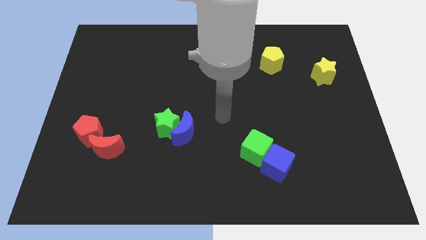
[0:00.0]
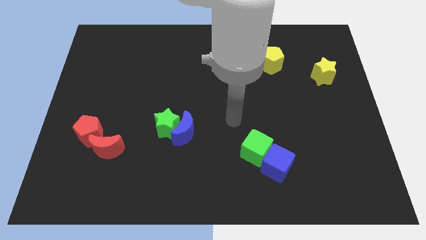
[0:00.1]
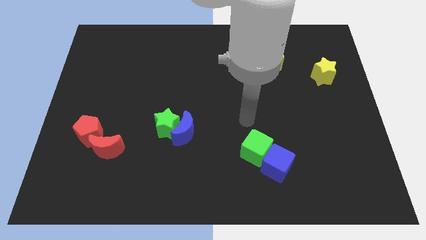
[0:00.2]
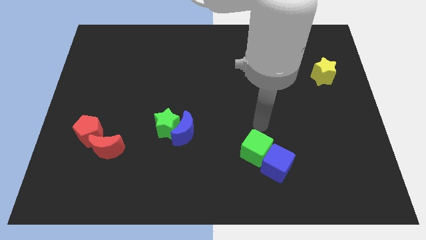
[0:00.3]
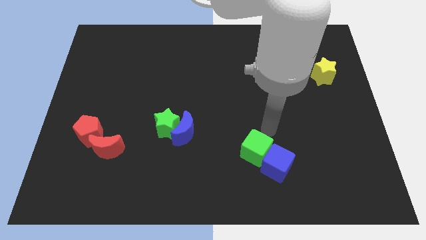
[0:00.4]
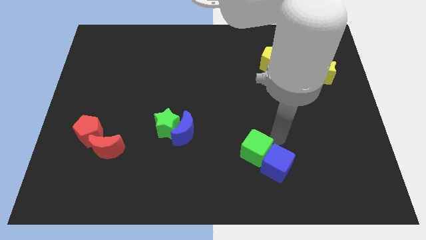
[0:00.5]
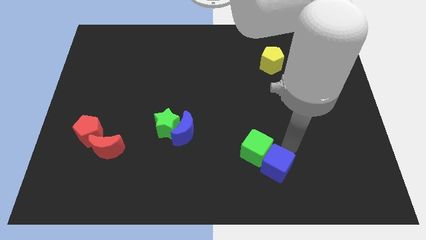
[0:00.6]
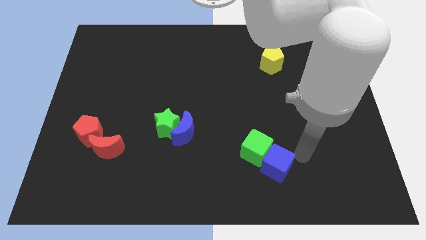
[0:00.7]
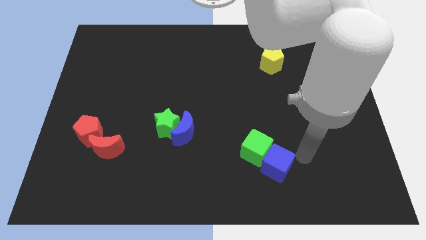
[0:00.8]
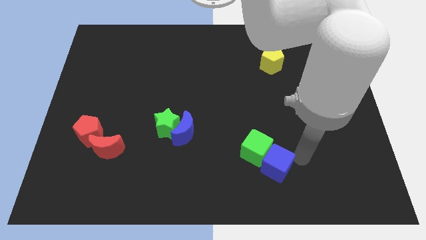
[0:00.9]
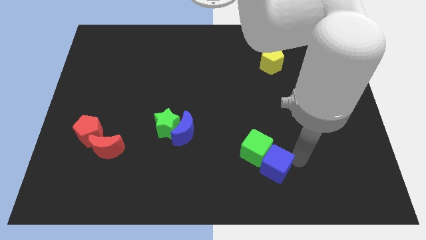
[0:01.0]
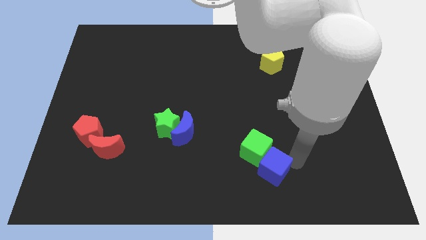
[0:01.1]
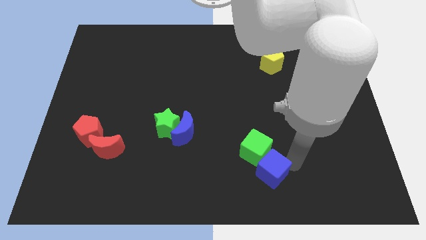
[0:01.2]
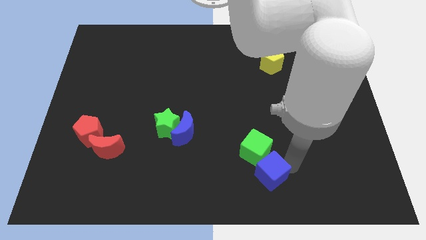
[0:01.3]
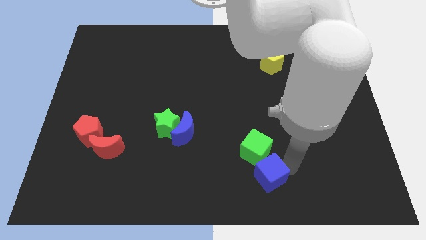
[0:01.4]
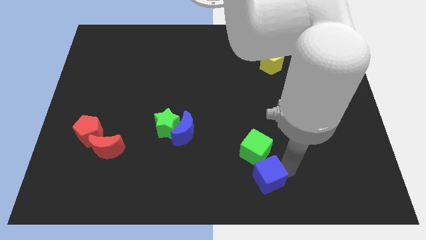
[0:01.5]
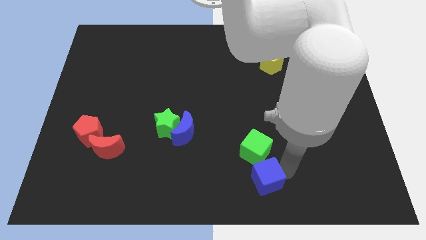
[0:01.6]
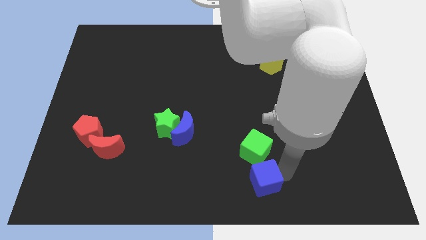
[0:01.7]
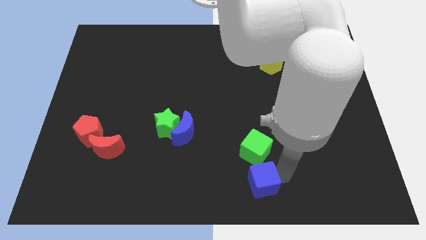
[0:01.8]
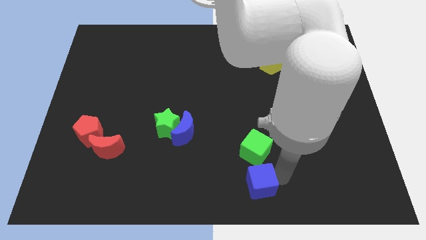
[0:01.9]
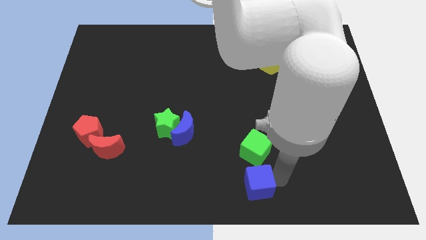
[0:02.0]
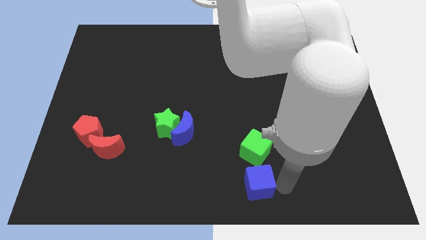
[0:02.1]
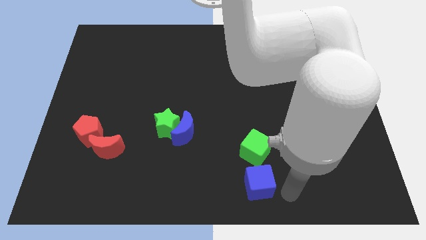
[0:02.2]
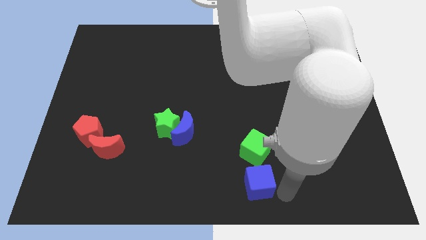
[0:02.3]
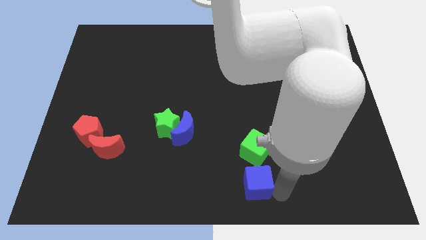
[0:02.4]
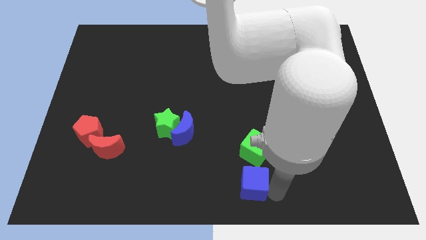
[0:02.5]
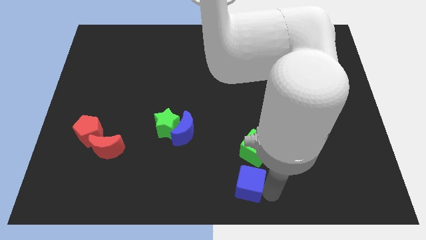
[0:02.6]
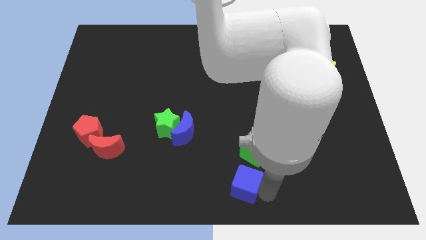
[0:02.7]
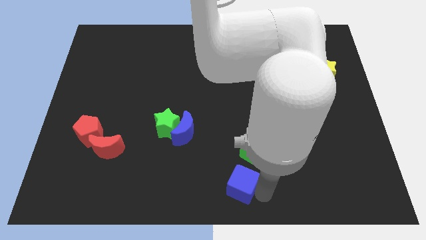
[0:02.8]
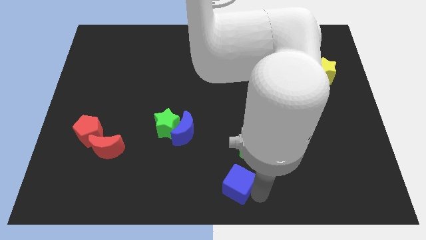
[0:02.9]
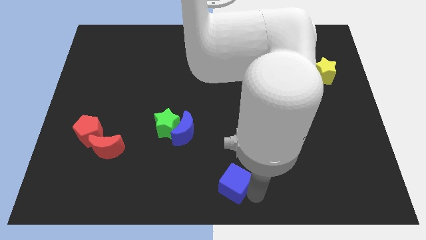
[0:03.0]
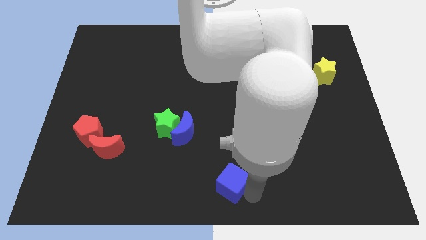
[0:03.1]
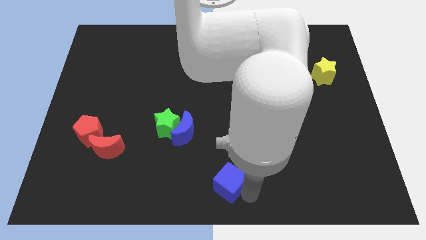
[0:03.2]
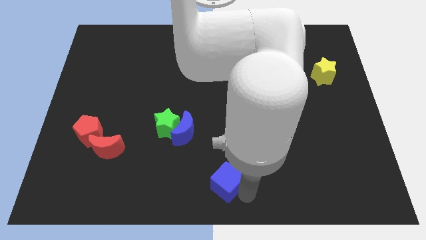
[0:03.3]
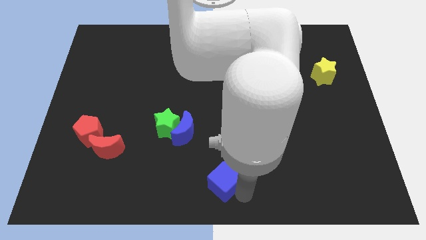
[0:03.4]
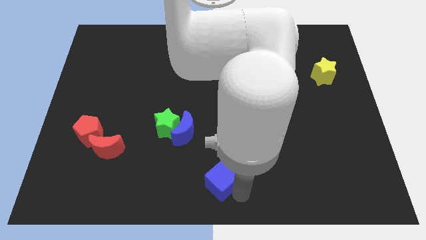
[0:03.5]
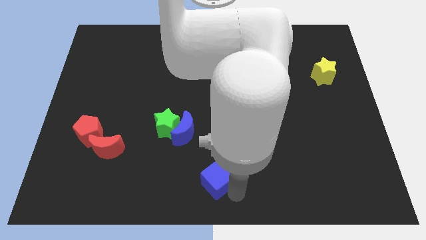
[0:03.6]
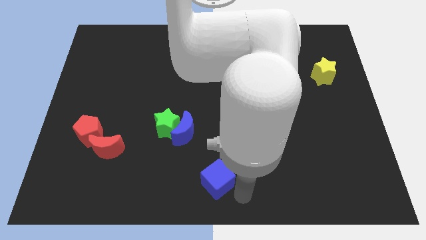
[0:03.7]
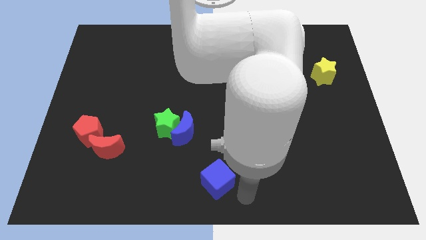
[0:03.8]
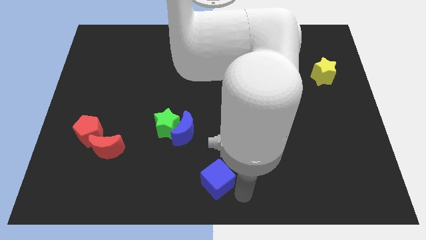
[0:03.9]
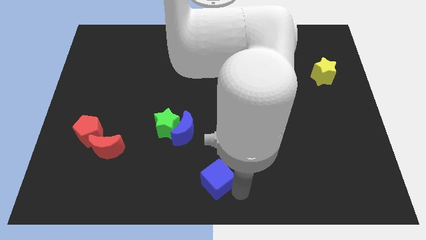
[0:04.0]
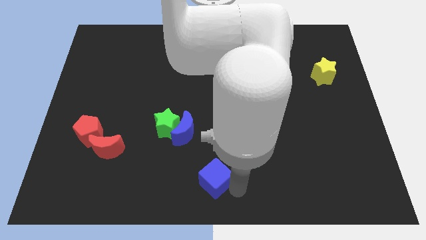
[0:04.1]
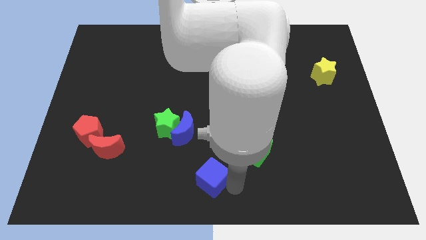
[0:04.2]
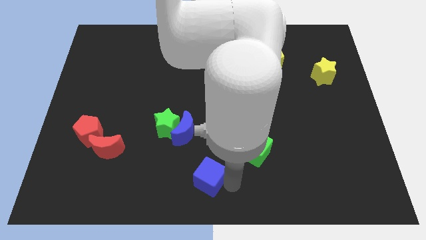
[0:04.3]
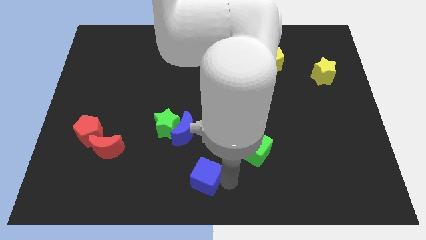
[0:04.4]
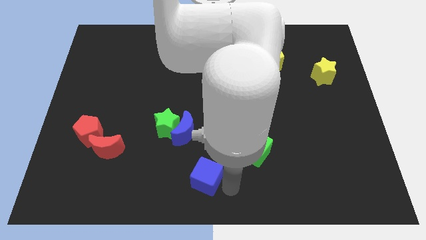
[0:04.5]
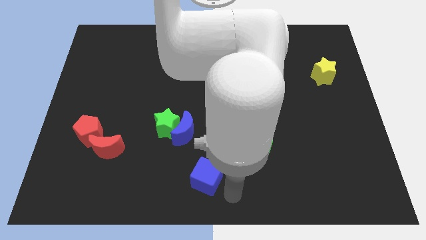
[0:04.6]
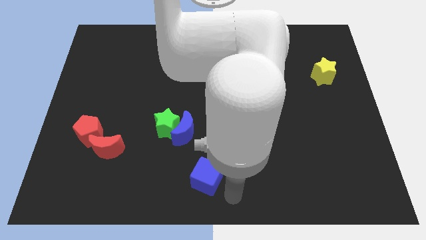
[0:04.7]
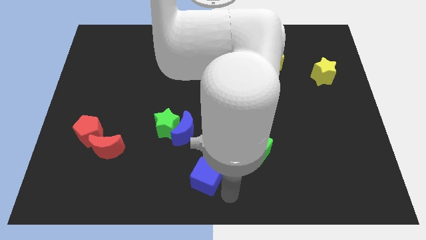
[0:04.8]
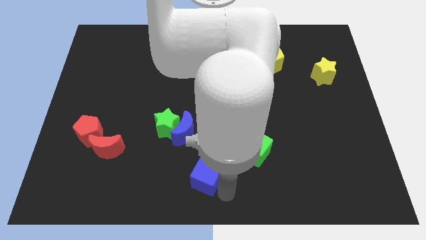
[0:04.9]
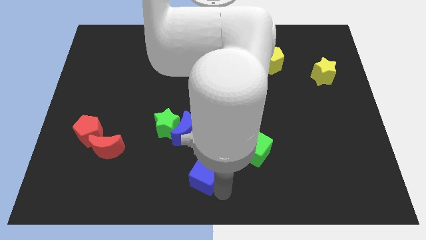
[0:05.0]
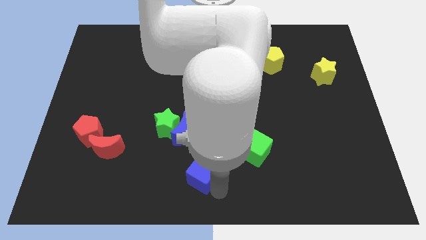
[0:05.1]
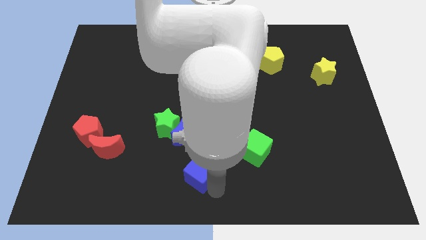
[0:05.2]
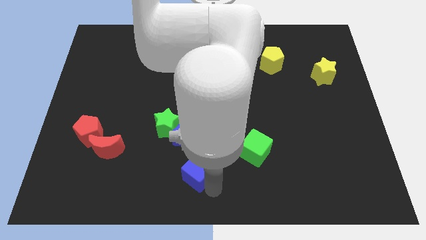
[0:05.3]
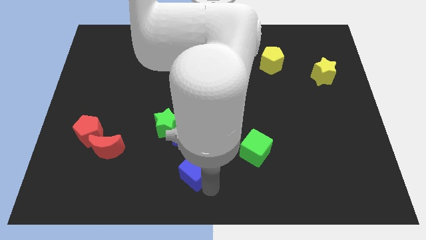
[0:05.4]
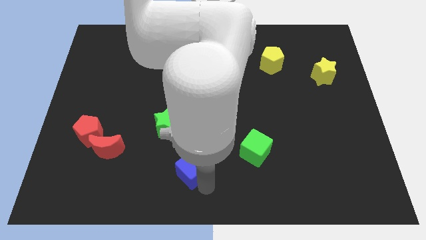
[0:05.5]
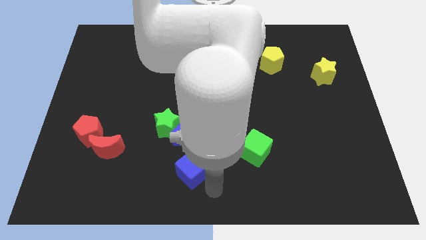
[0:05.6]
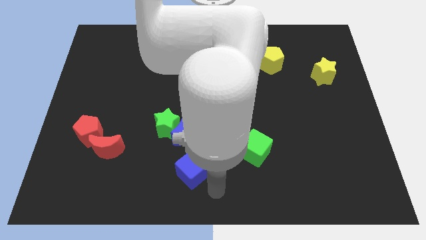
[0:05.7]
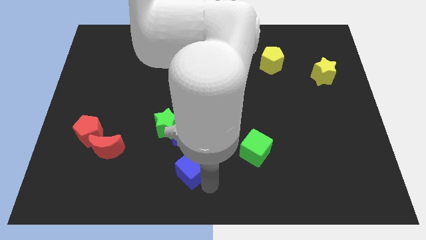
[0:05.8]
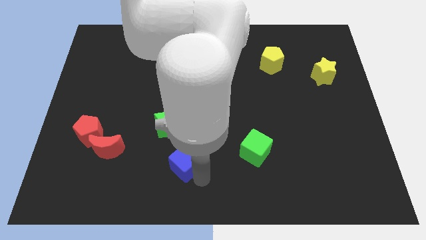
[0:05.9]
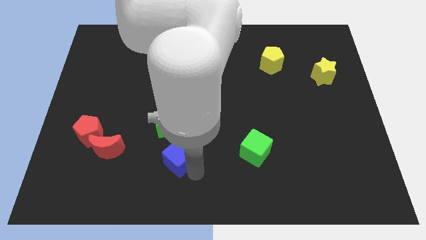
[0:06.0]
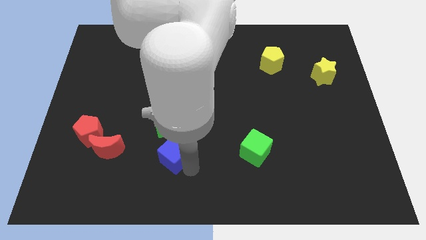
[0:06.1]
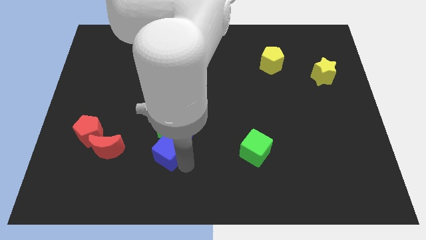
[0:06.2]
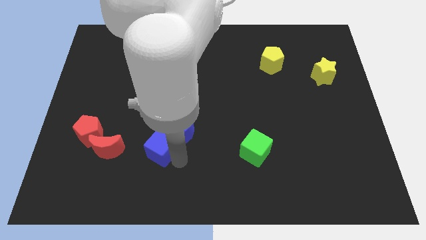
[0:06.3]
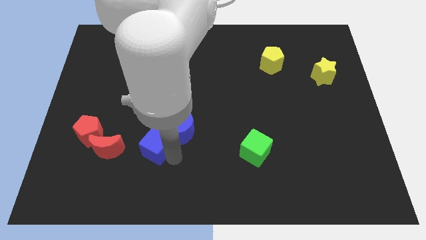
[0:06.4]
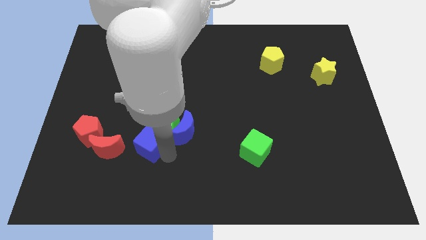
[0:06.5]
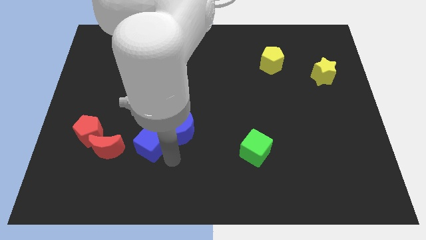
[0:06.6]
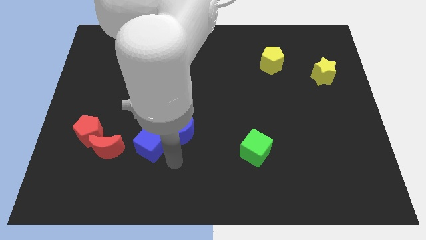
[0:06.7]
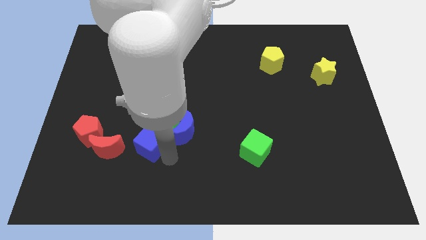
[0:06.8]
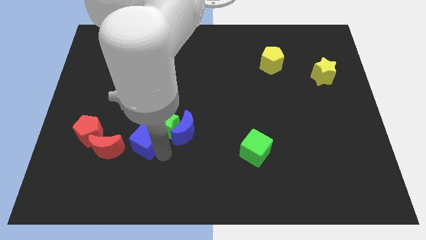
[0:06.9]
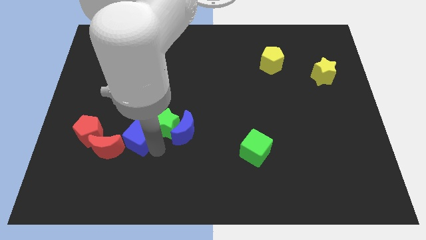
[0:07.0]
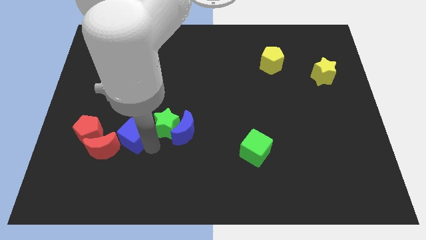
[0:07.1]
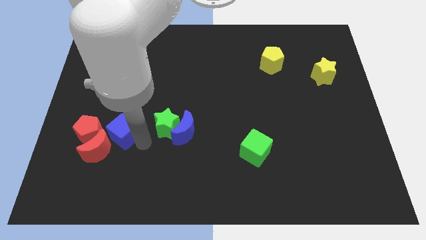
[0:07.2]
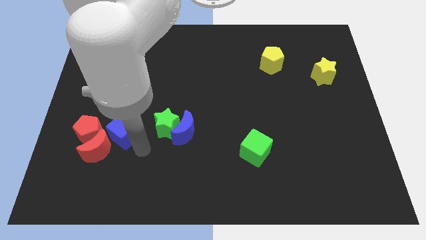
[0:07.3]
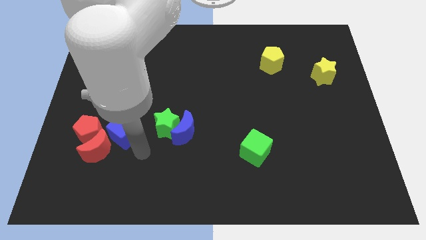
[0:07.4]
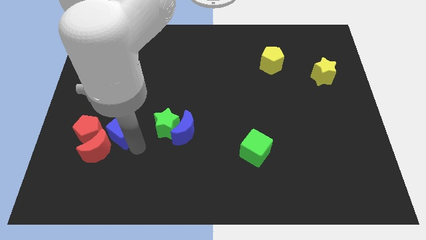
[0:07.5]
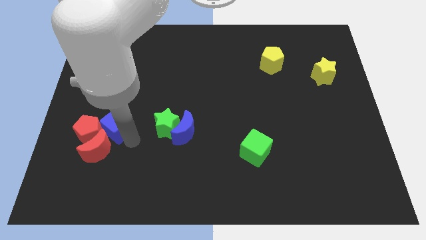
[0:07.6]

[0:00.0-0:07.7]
move the blue cube to the top of the red moon
